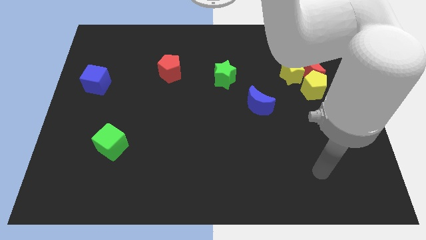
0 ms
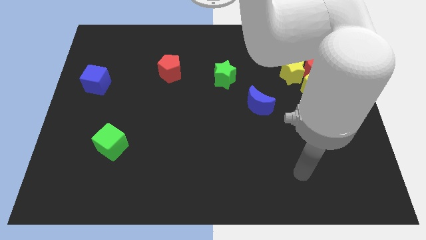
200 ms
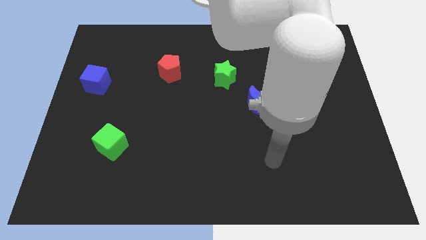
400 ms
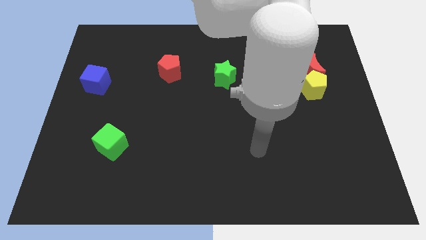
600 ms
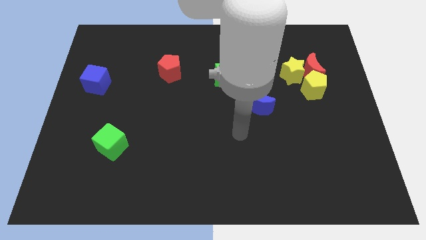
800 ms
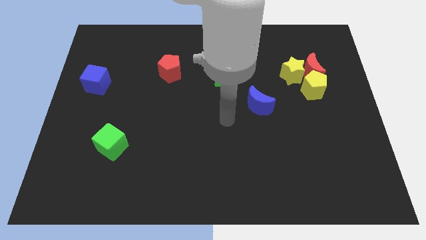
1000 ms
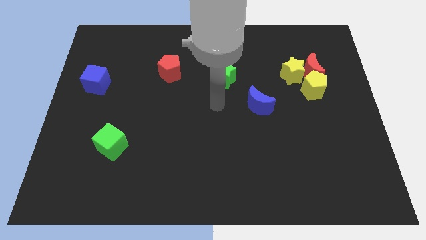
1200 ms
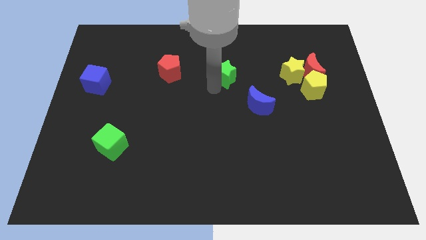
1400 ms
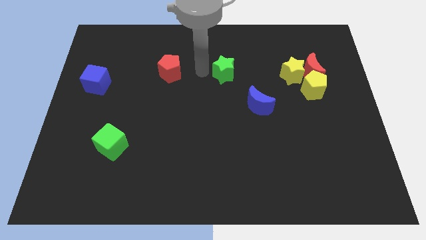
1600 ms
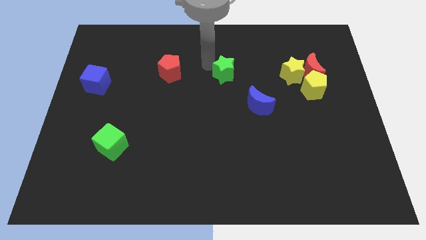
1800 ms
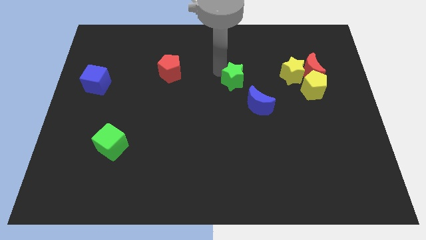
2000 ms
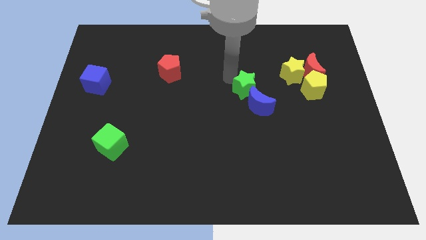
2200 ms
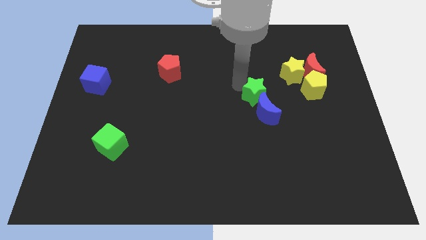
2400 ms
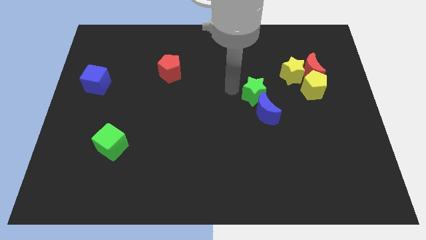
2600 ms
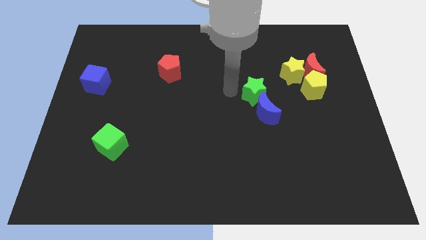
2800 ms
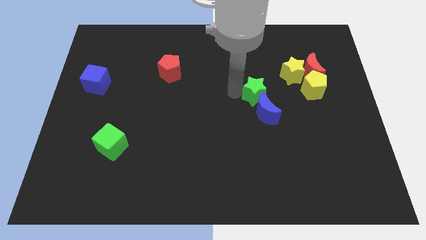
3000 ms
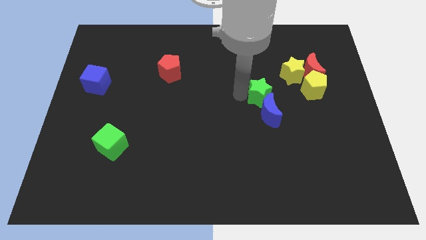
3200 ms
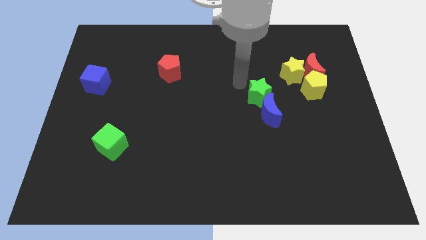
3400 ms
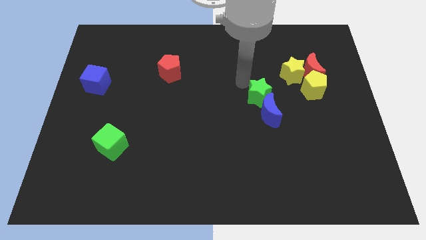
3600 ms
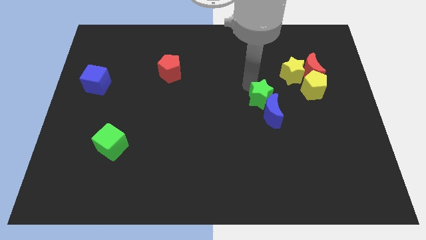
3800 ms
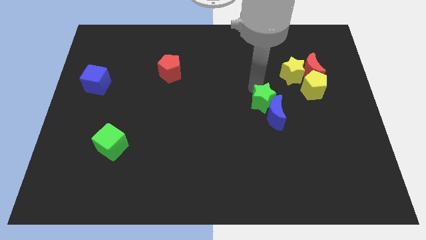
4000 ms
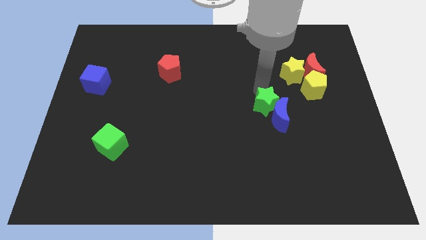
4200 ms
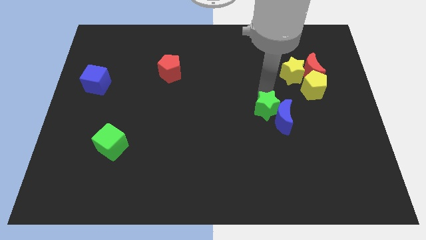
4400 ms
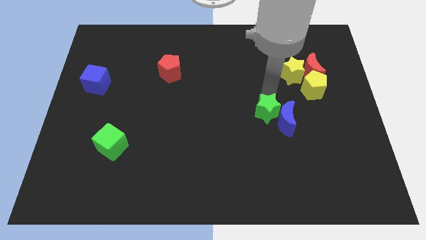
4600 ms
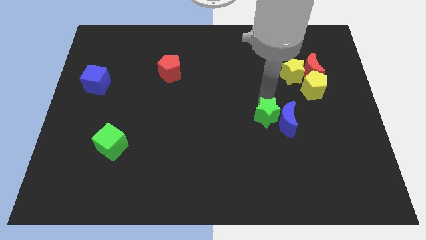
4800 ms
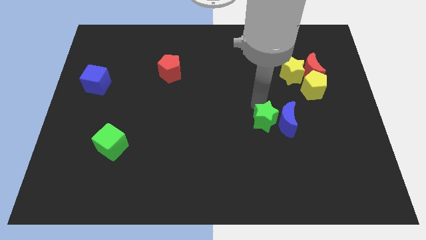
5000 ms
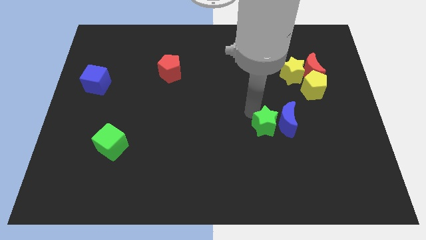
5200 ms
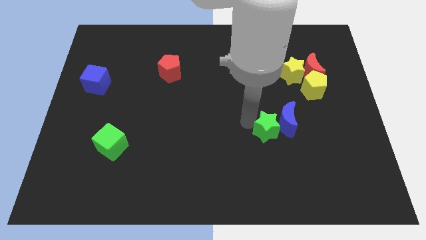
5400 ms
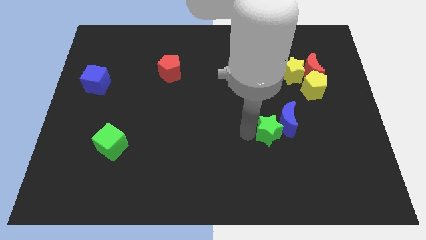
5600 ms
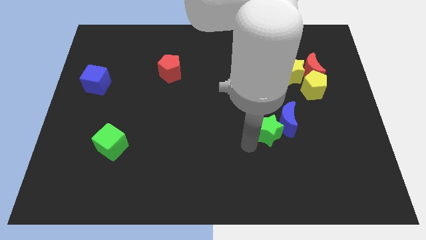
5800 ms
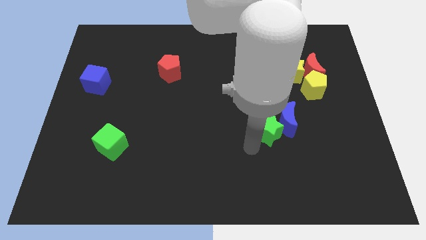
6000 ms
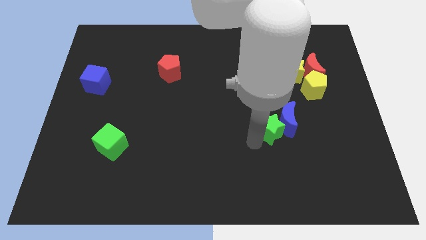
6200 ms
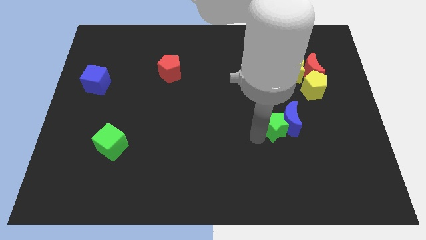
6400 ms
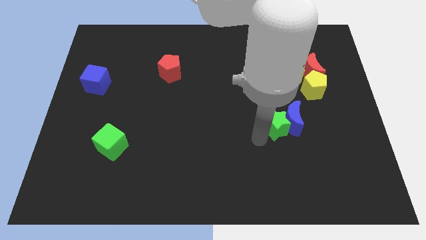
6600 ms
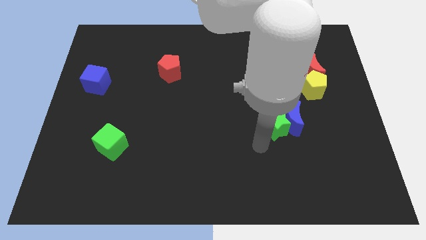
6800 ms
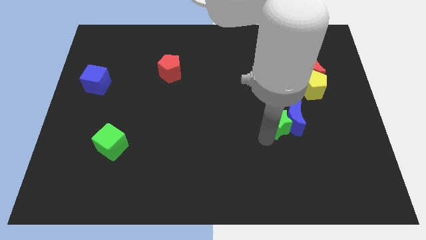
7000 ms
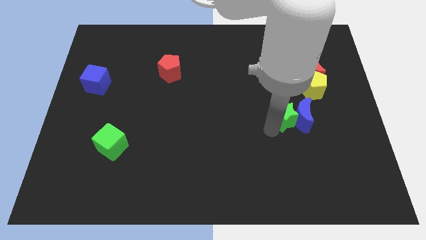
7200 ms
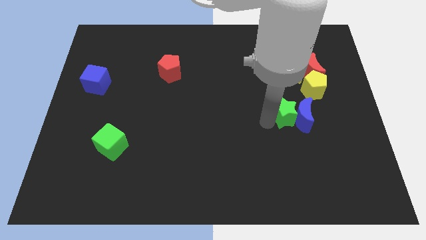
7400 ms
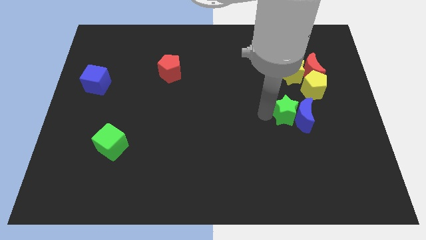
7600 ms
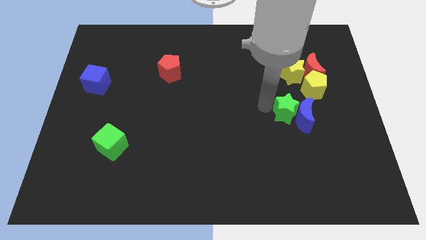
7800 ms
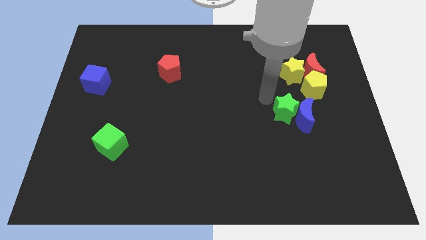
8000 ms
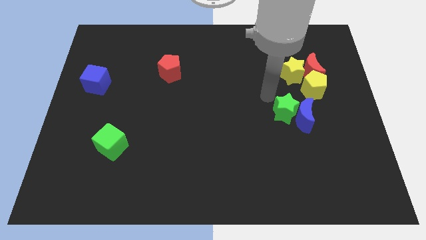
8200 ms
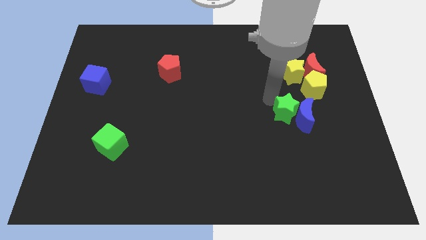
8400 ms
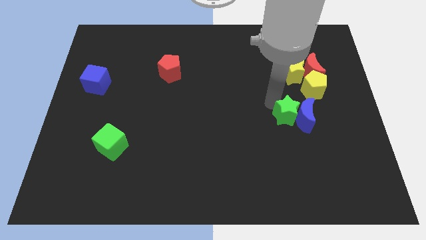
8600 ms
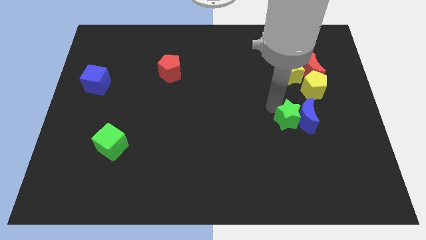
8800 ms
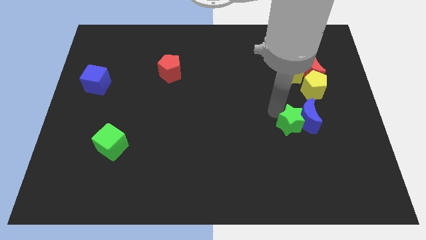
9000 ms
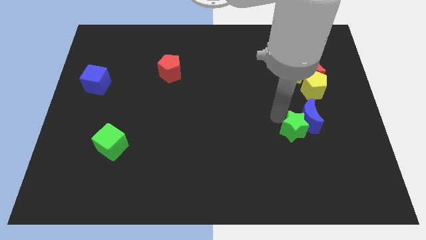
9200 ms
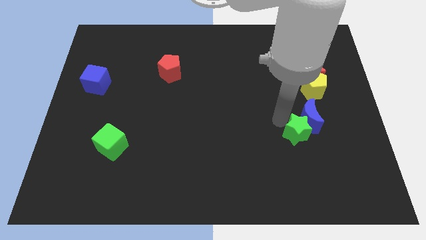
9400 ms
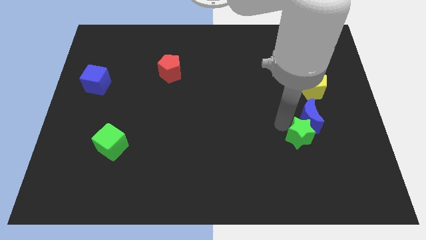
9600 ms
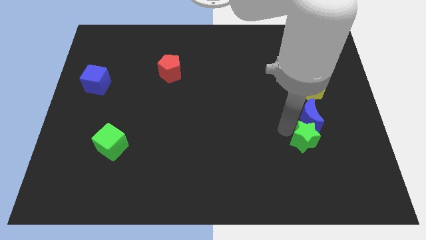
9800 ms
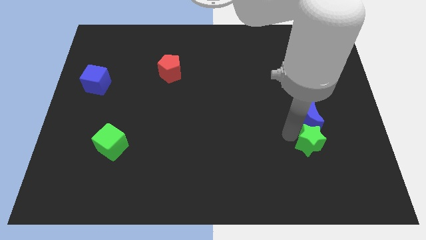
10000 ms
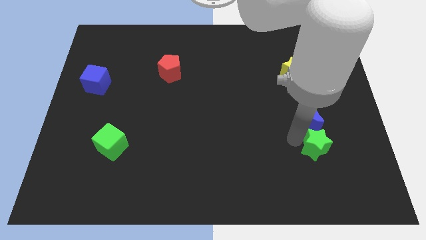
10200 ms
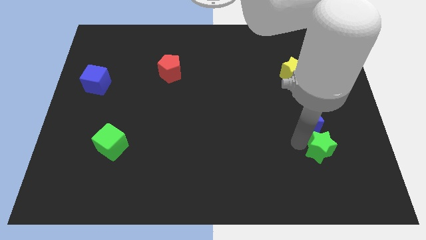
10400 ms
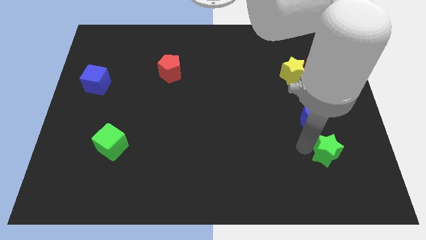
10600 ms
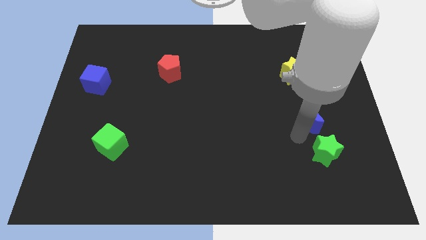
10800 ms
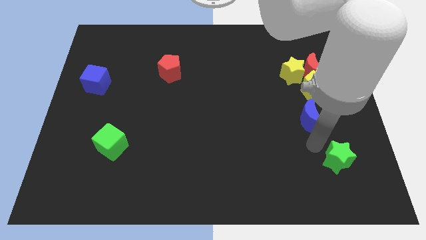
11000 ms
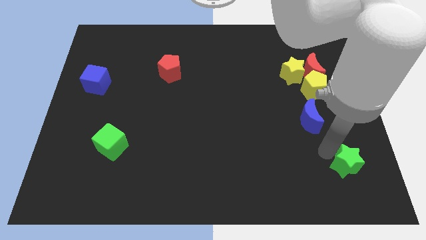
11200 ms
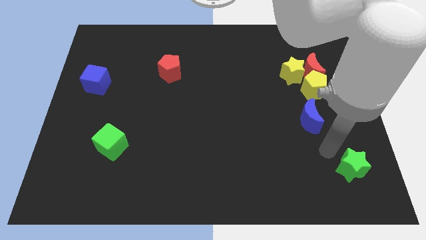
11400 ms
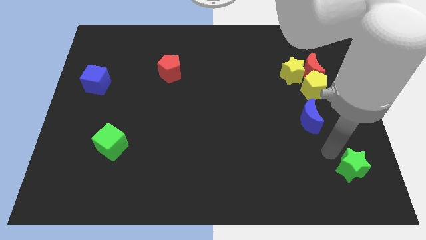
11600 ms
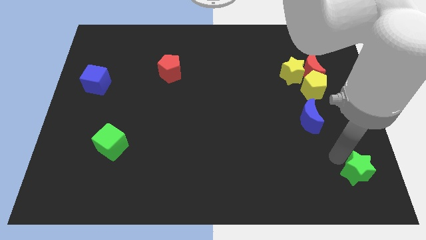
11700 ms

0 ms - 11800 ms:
push the green star to the lower right corner
